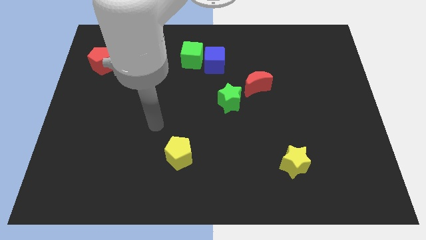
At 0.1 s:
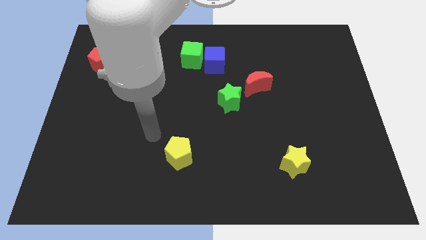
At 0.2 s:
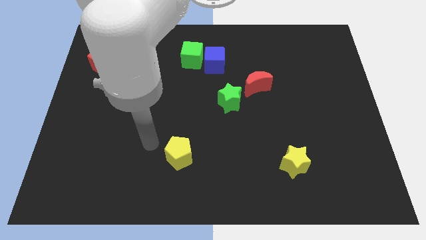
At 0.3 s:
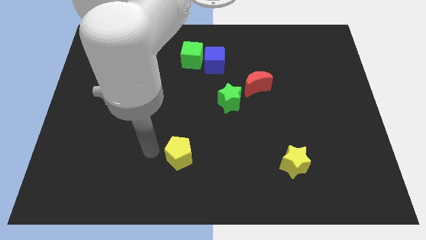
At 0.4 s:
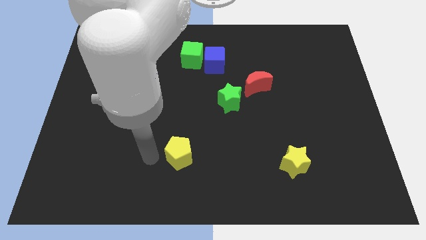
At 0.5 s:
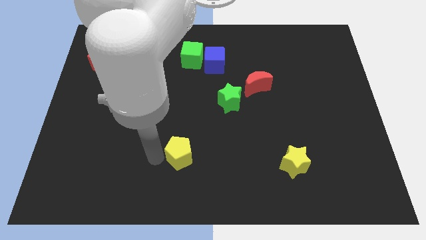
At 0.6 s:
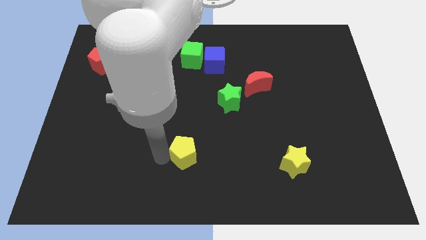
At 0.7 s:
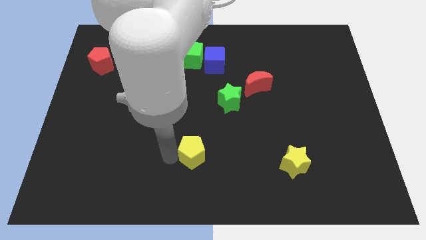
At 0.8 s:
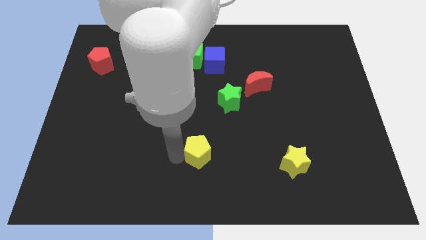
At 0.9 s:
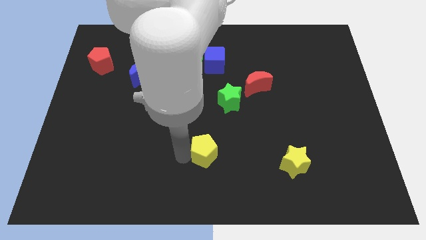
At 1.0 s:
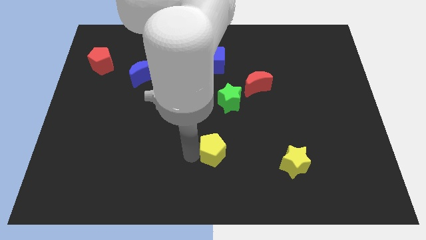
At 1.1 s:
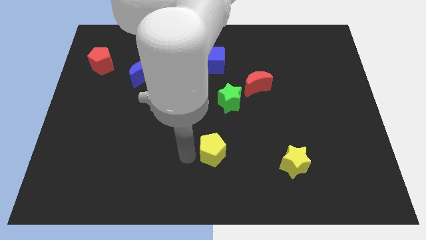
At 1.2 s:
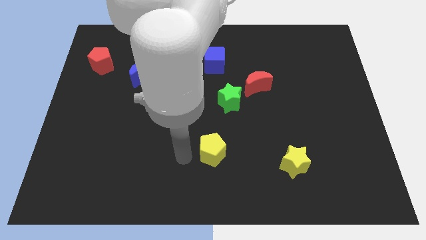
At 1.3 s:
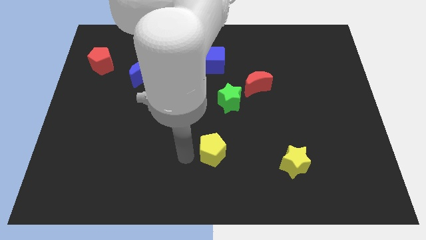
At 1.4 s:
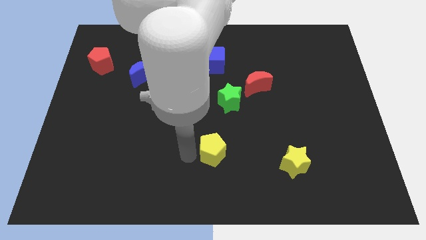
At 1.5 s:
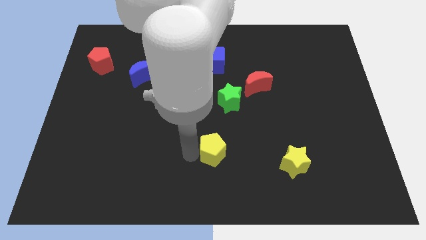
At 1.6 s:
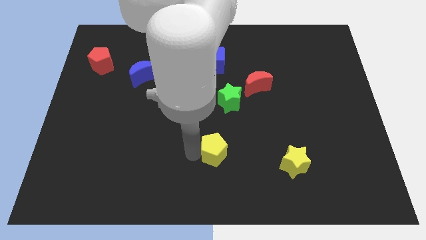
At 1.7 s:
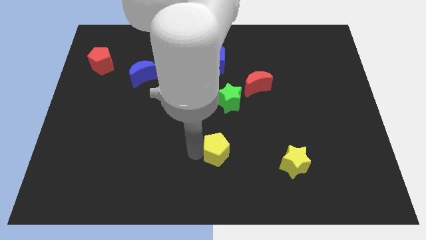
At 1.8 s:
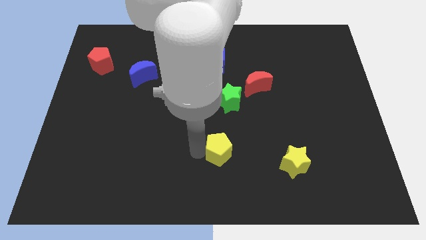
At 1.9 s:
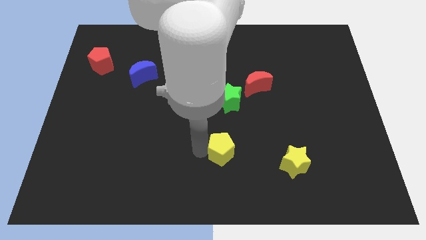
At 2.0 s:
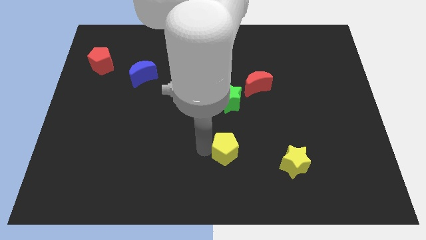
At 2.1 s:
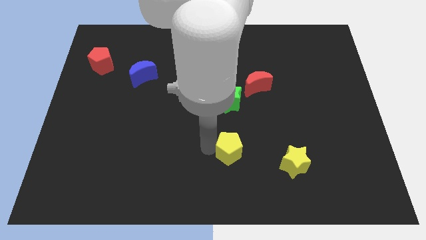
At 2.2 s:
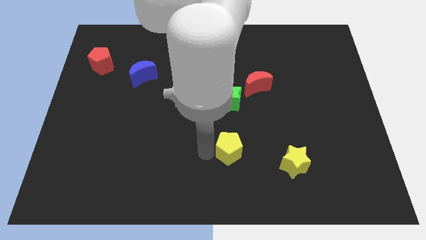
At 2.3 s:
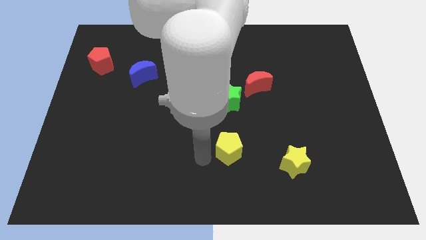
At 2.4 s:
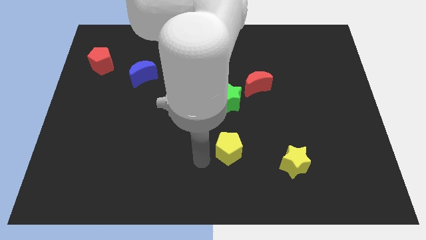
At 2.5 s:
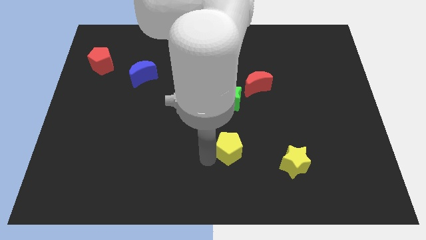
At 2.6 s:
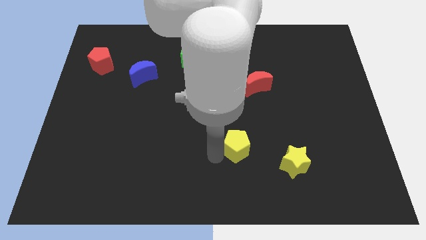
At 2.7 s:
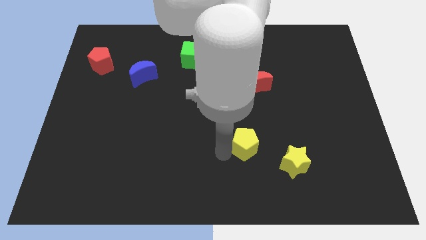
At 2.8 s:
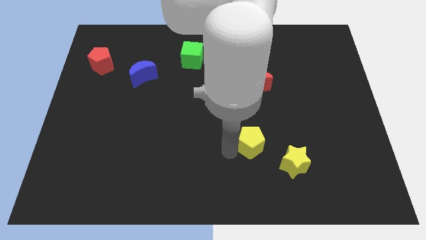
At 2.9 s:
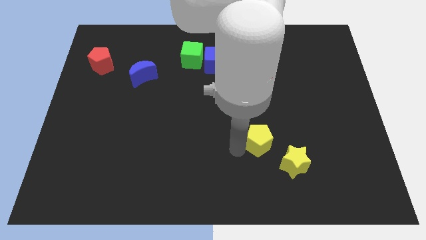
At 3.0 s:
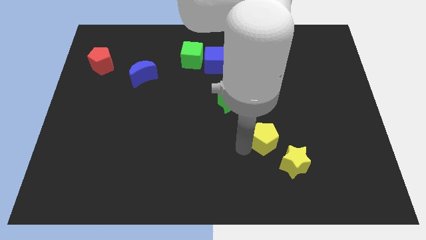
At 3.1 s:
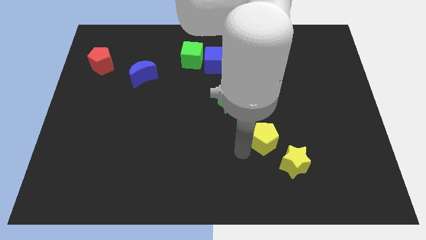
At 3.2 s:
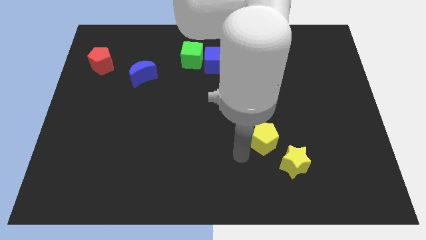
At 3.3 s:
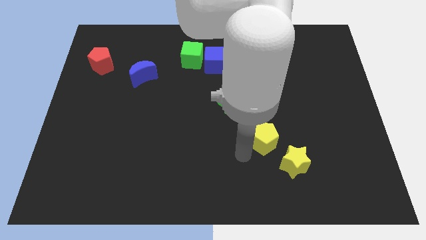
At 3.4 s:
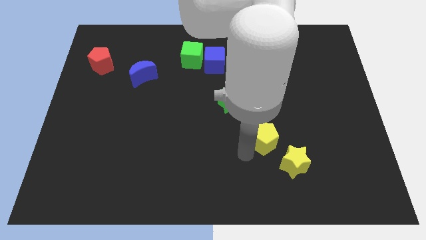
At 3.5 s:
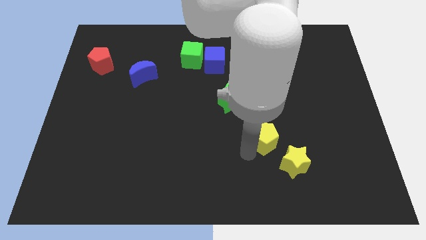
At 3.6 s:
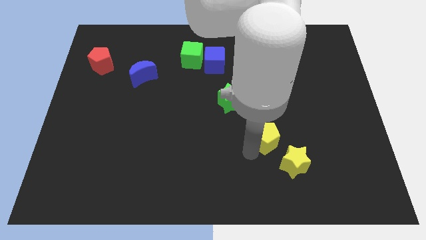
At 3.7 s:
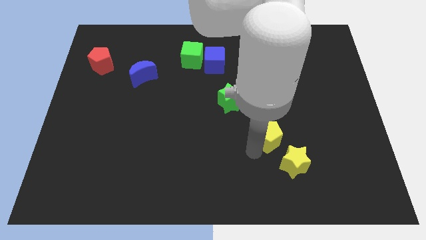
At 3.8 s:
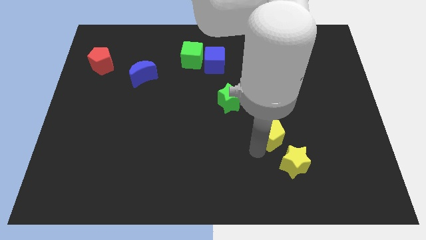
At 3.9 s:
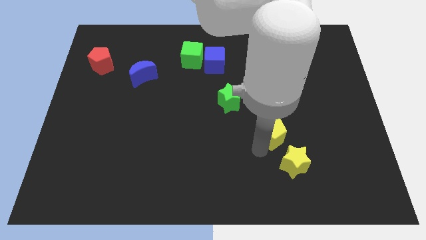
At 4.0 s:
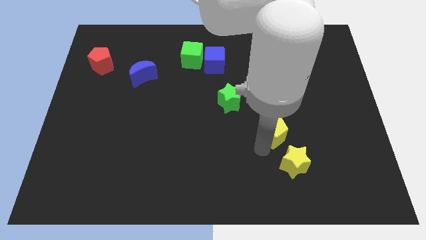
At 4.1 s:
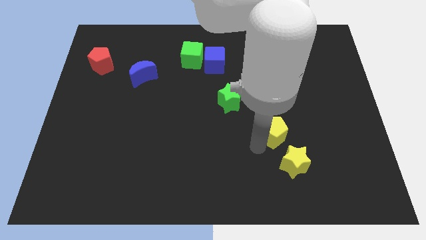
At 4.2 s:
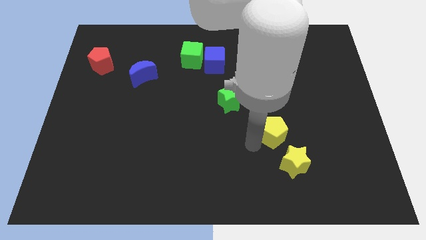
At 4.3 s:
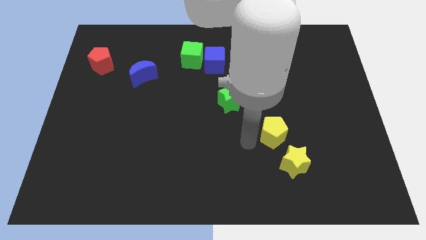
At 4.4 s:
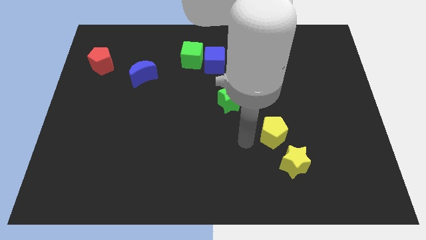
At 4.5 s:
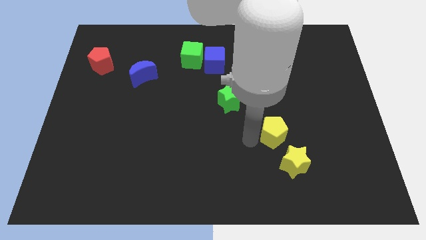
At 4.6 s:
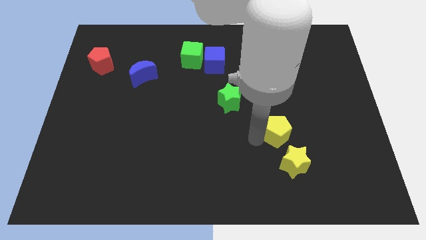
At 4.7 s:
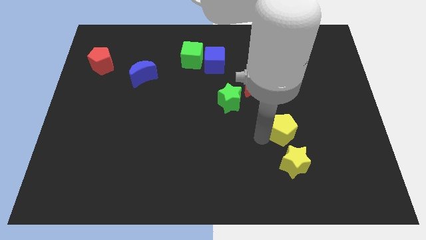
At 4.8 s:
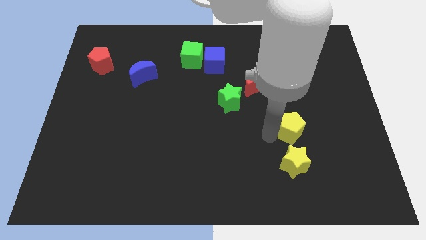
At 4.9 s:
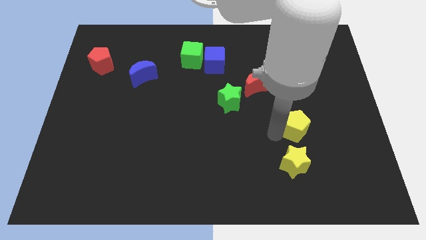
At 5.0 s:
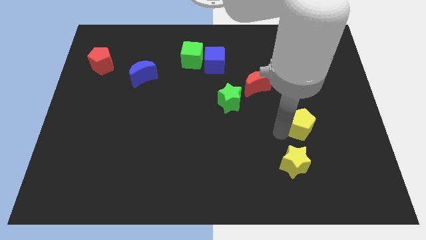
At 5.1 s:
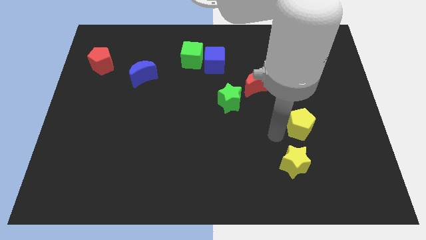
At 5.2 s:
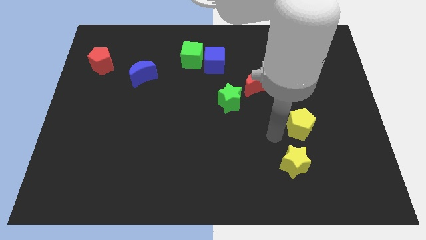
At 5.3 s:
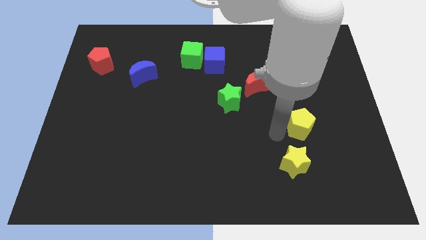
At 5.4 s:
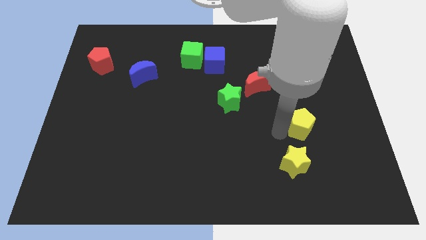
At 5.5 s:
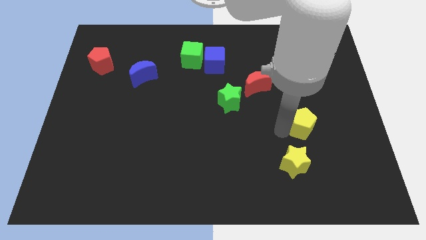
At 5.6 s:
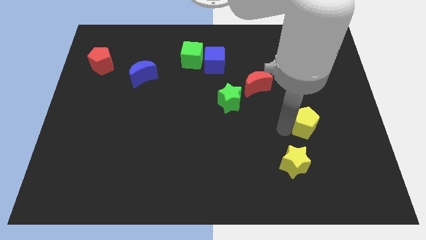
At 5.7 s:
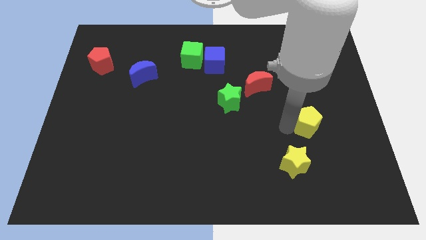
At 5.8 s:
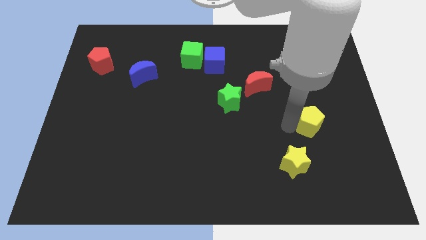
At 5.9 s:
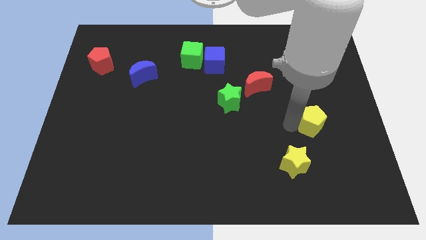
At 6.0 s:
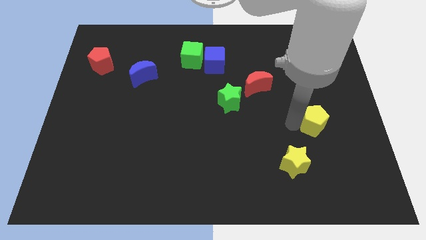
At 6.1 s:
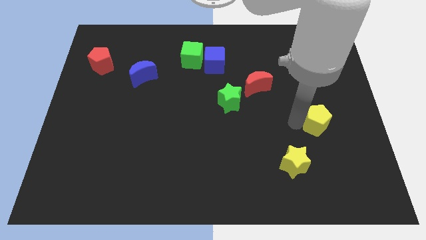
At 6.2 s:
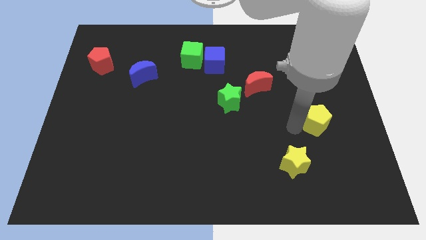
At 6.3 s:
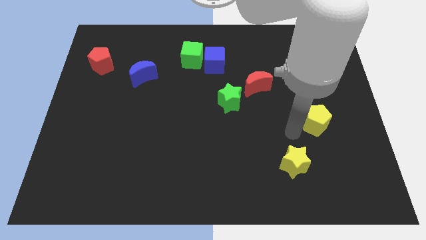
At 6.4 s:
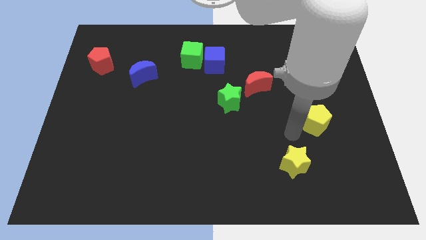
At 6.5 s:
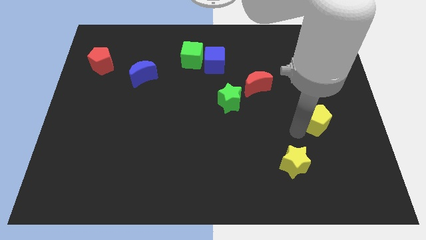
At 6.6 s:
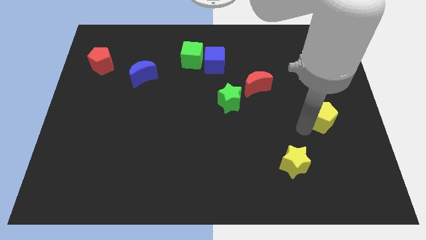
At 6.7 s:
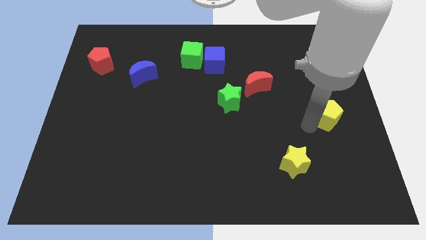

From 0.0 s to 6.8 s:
move the yellow pentagon to the right side
